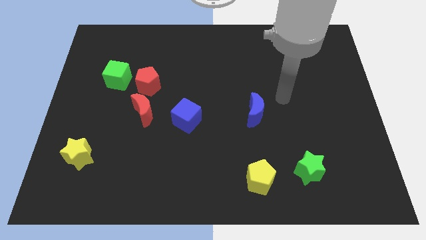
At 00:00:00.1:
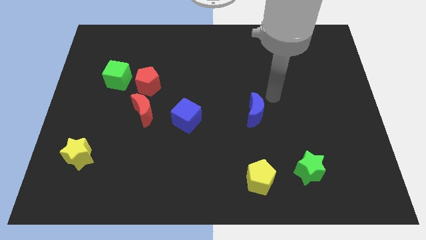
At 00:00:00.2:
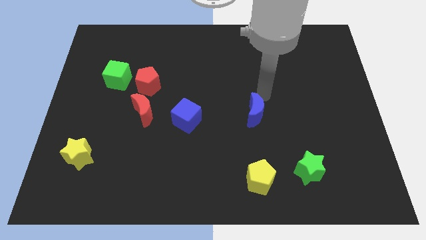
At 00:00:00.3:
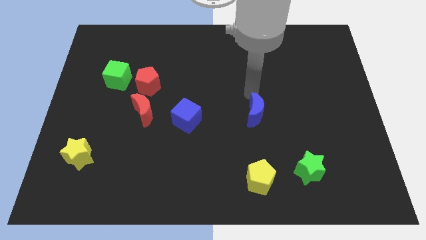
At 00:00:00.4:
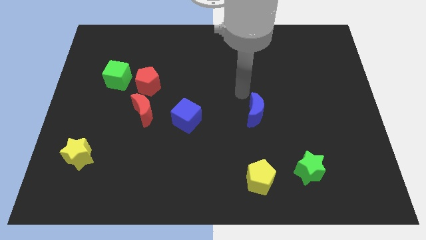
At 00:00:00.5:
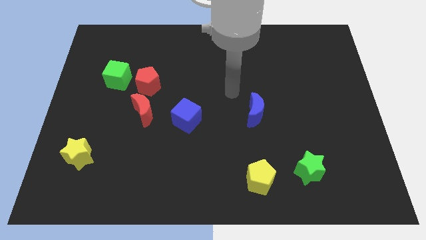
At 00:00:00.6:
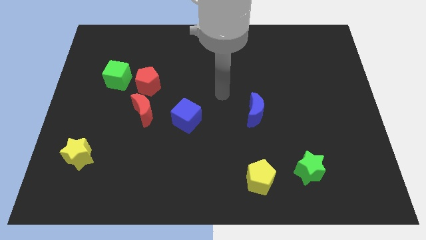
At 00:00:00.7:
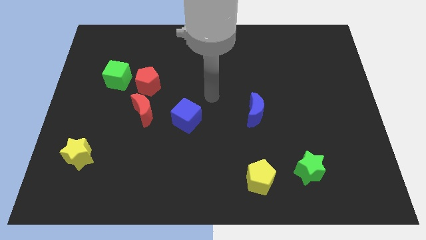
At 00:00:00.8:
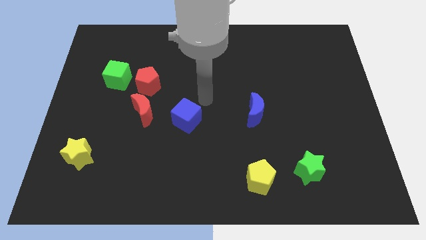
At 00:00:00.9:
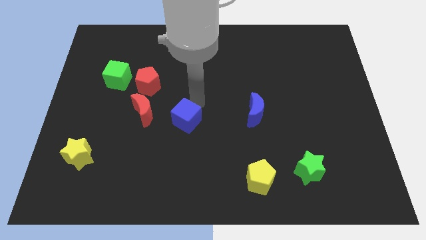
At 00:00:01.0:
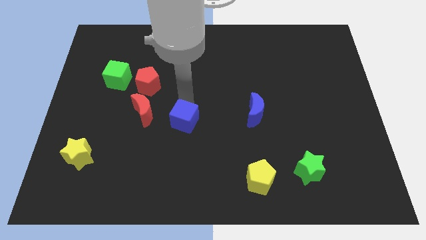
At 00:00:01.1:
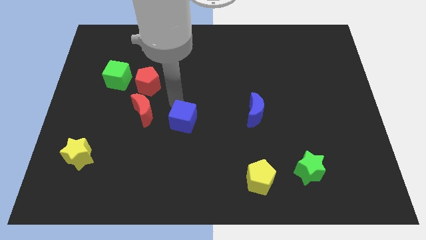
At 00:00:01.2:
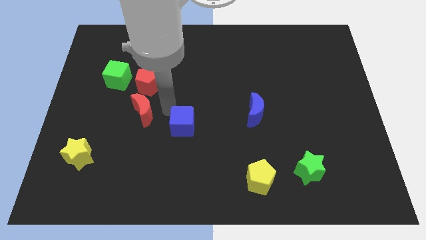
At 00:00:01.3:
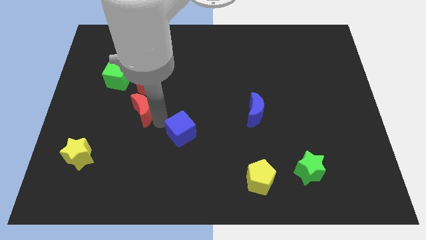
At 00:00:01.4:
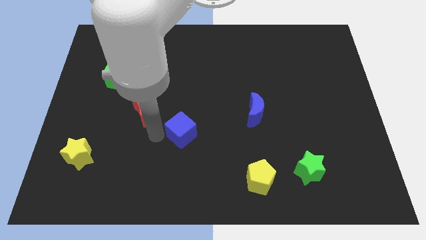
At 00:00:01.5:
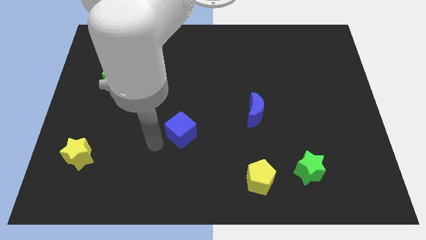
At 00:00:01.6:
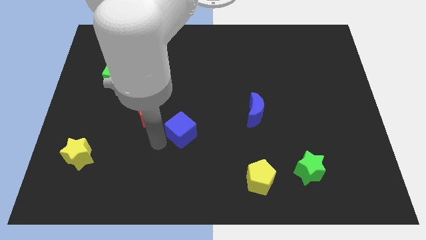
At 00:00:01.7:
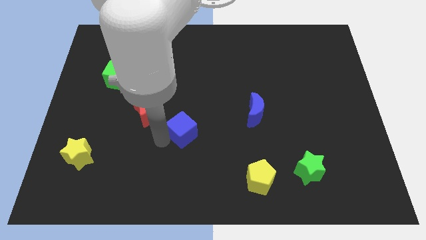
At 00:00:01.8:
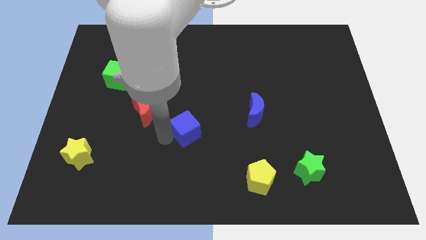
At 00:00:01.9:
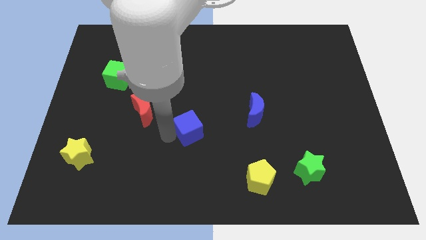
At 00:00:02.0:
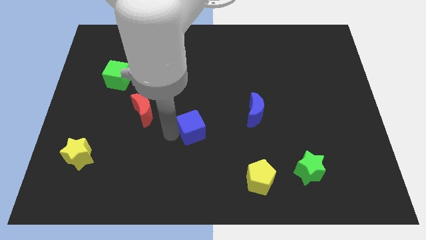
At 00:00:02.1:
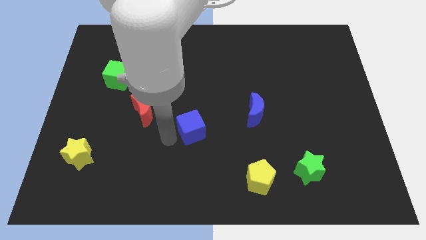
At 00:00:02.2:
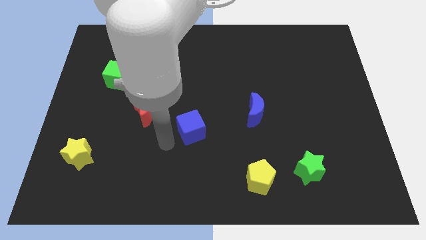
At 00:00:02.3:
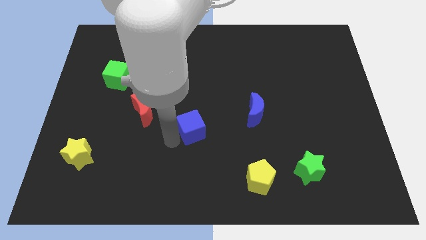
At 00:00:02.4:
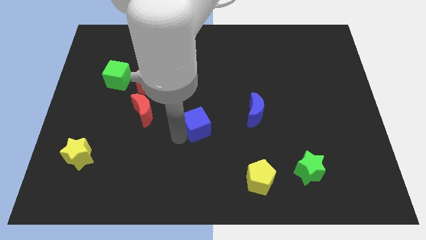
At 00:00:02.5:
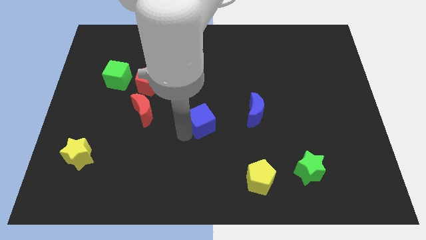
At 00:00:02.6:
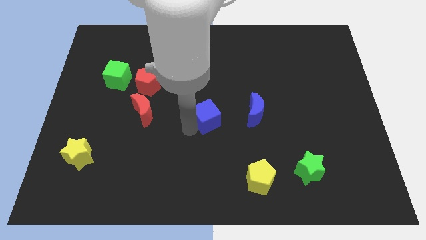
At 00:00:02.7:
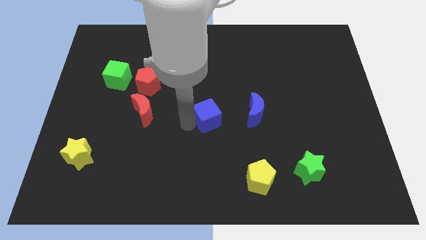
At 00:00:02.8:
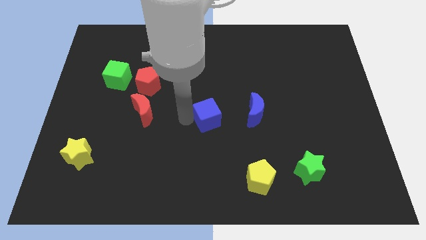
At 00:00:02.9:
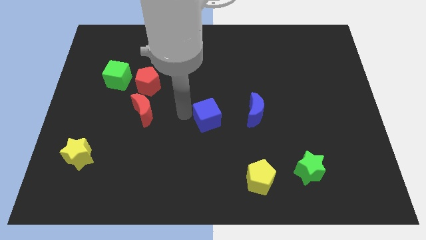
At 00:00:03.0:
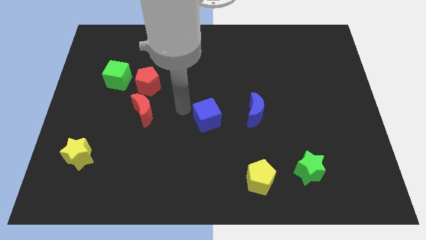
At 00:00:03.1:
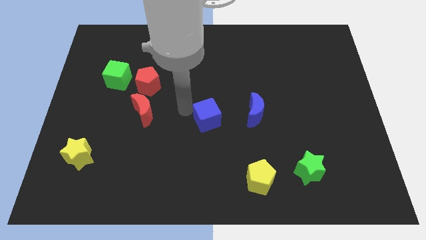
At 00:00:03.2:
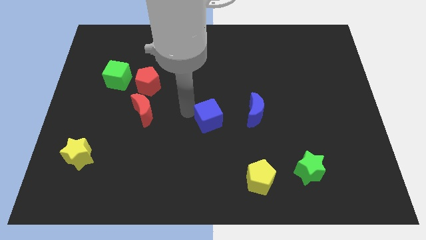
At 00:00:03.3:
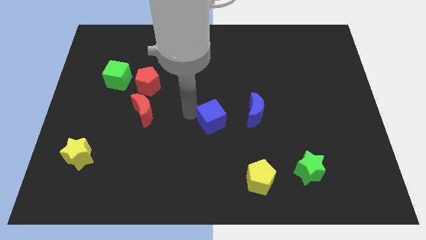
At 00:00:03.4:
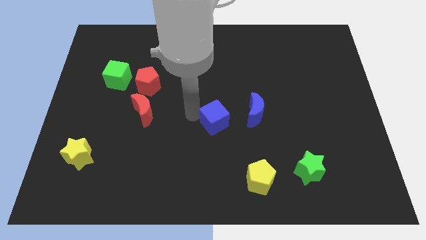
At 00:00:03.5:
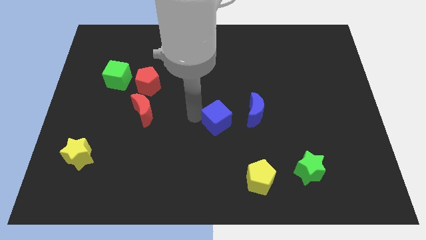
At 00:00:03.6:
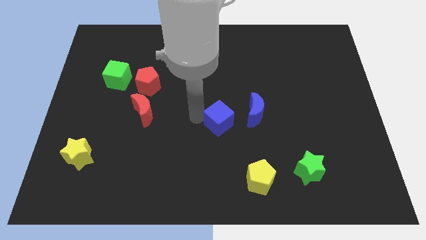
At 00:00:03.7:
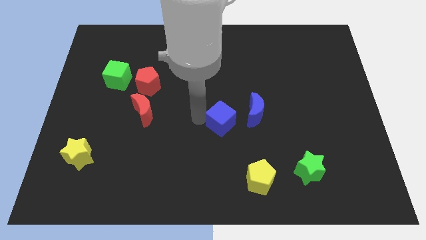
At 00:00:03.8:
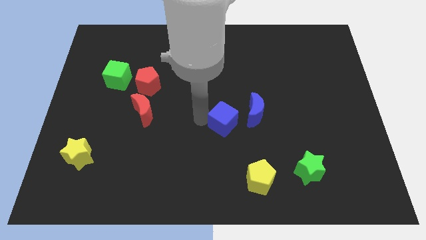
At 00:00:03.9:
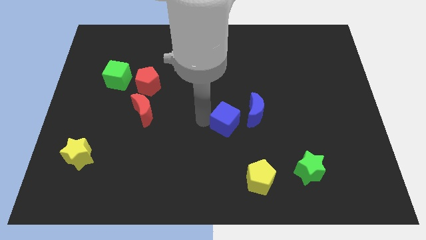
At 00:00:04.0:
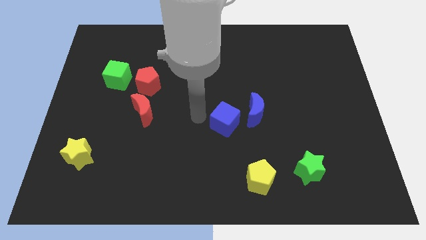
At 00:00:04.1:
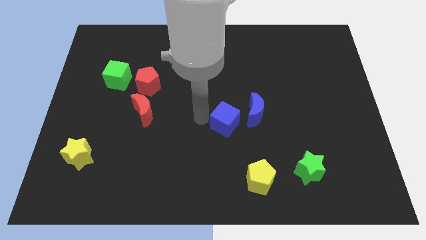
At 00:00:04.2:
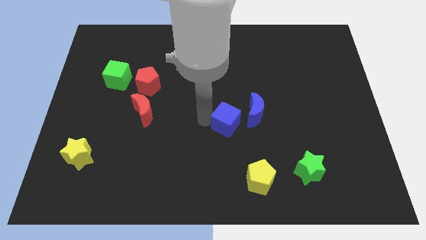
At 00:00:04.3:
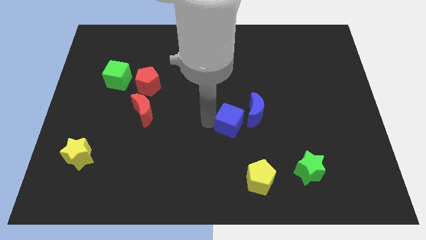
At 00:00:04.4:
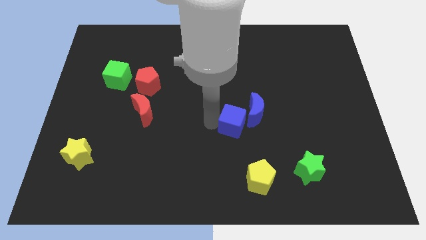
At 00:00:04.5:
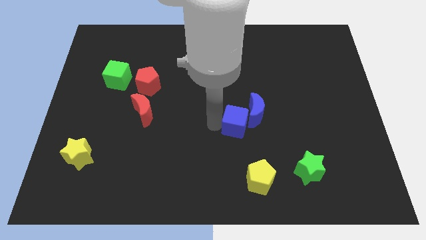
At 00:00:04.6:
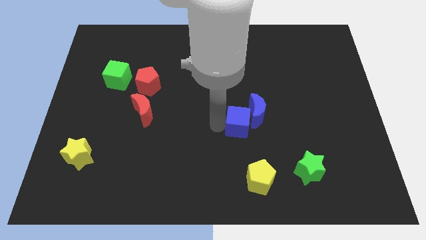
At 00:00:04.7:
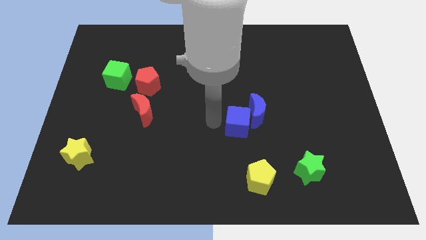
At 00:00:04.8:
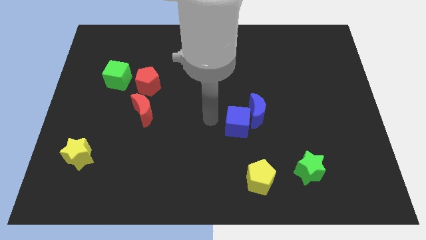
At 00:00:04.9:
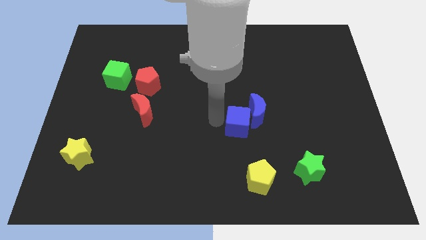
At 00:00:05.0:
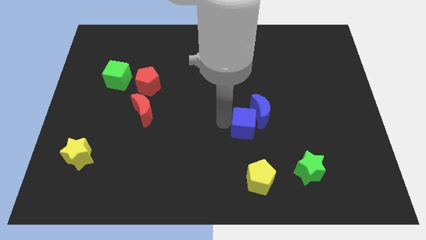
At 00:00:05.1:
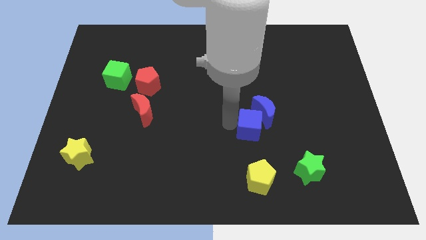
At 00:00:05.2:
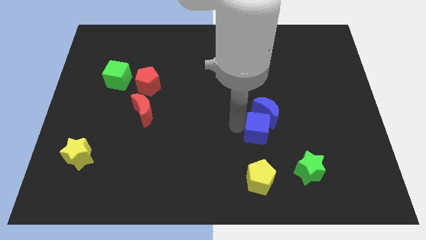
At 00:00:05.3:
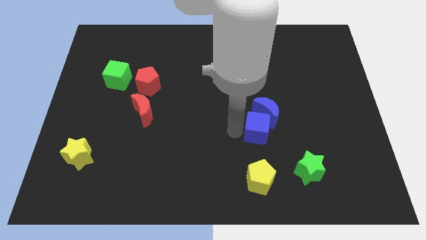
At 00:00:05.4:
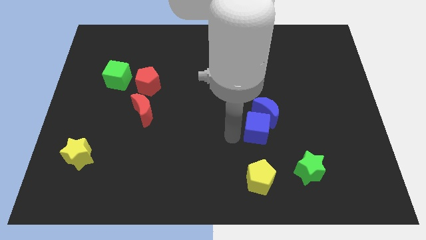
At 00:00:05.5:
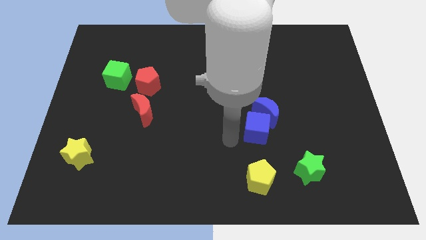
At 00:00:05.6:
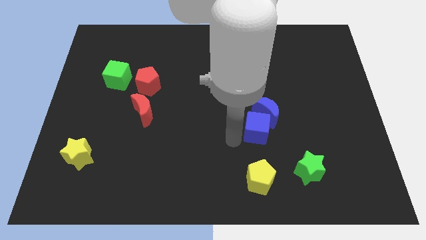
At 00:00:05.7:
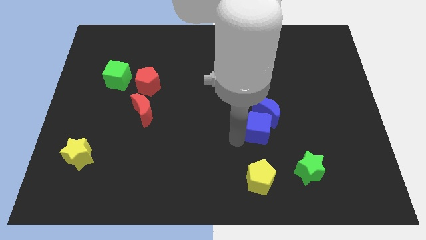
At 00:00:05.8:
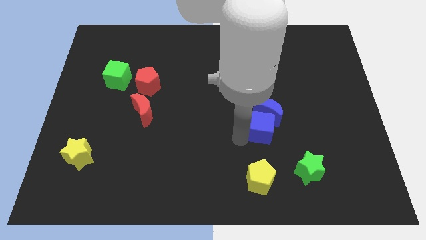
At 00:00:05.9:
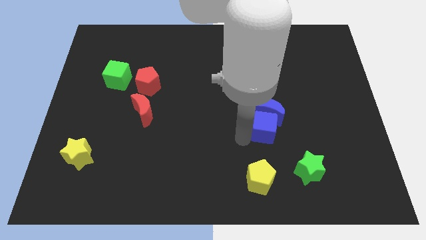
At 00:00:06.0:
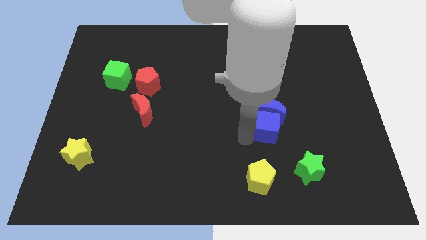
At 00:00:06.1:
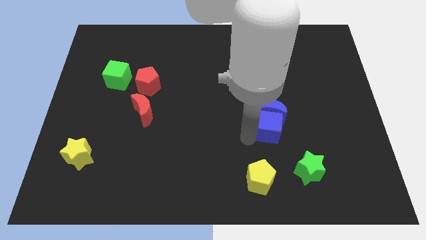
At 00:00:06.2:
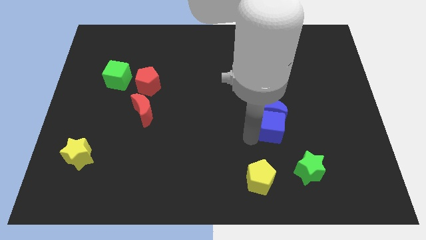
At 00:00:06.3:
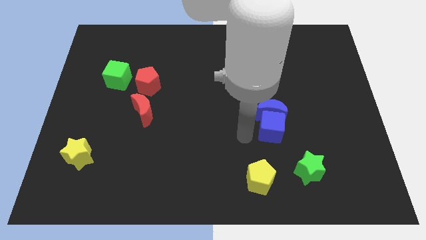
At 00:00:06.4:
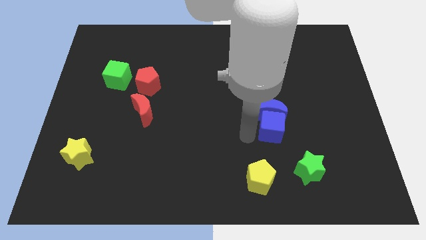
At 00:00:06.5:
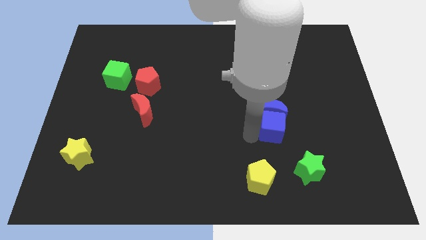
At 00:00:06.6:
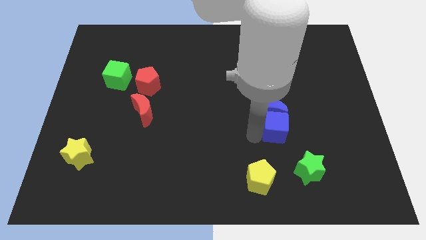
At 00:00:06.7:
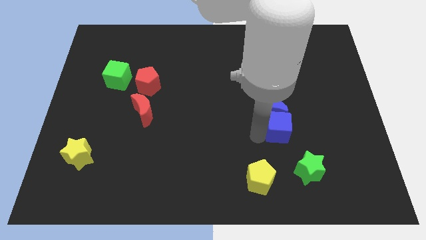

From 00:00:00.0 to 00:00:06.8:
slide the blue cube to the right

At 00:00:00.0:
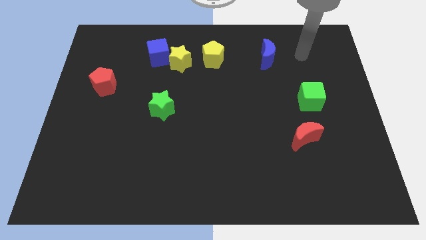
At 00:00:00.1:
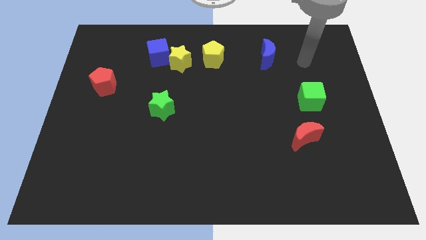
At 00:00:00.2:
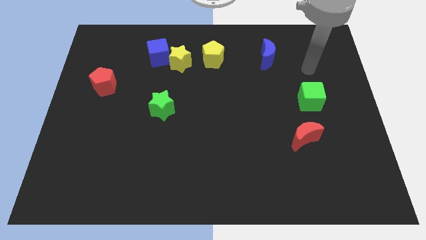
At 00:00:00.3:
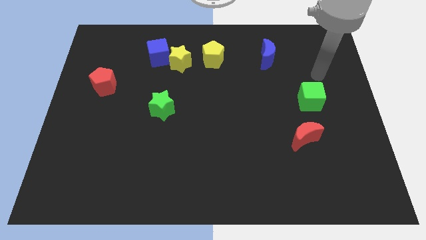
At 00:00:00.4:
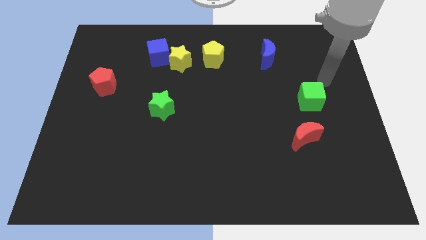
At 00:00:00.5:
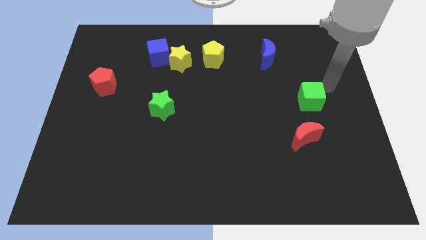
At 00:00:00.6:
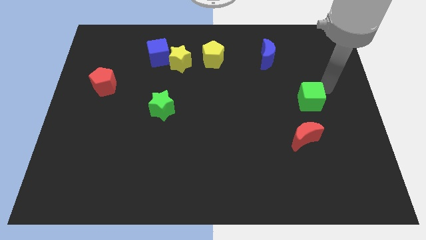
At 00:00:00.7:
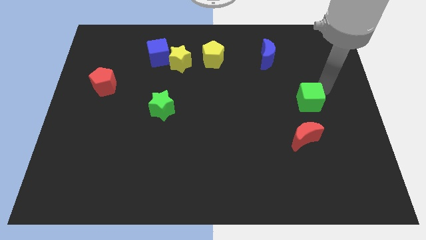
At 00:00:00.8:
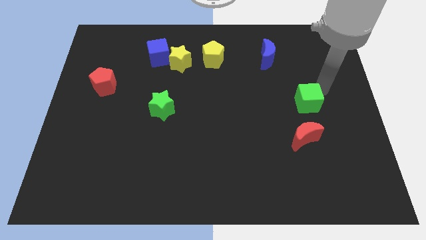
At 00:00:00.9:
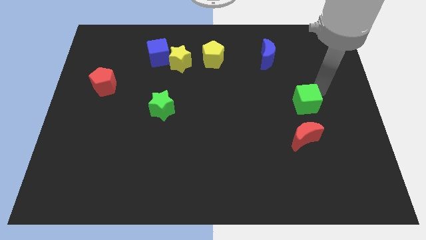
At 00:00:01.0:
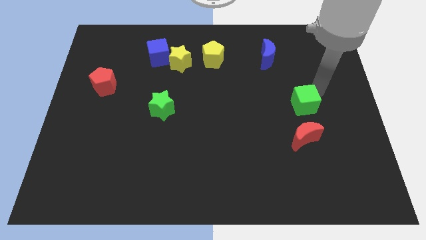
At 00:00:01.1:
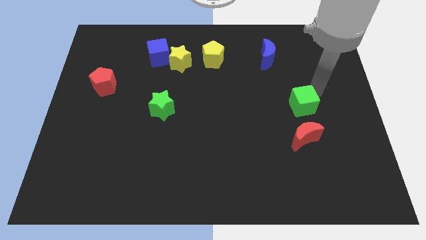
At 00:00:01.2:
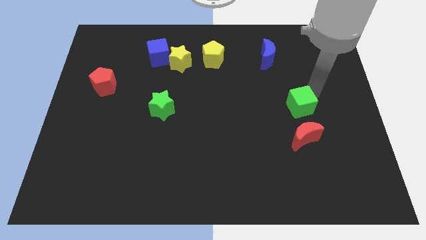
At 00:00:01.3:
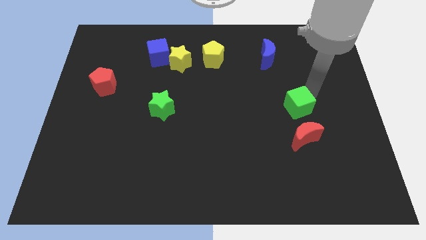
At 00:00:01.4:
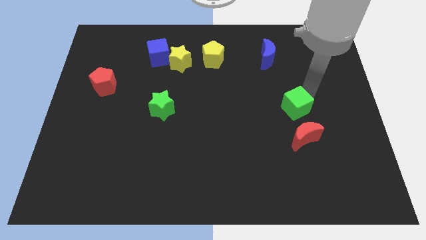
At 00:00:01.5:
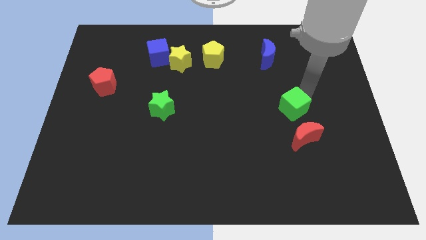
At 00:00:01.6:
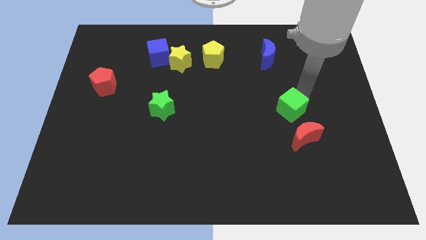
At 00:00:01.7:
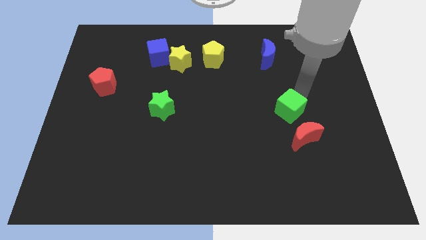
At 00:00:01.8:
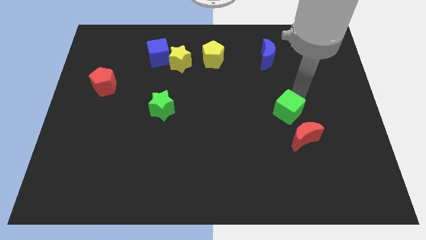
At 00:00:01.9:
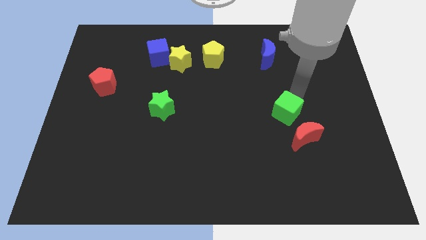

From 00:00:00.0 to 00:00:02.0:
move the green cube downwards and to the left a little bit
